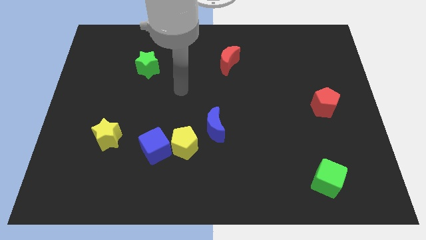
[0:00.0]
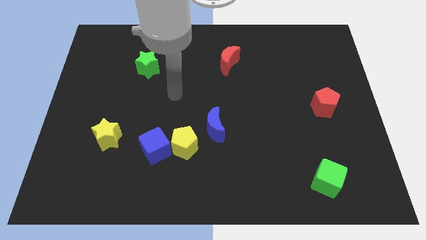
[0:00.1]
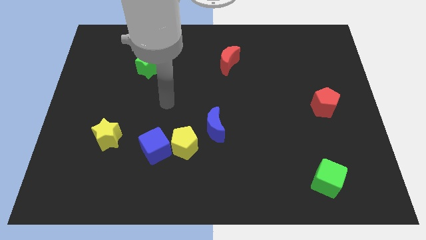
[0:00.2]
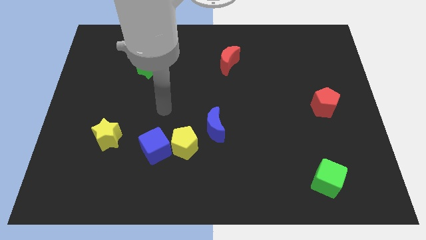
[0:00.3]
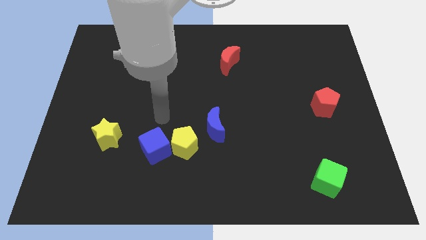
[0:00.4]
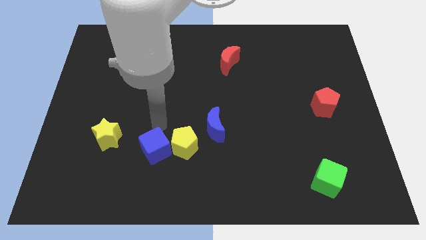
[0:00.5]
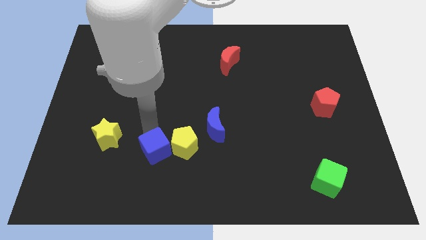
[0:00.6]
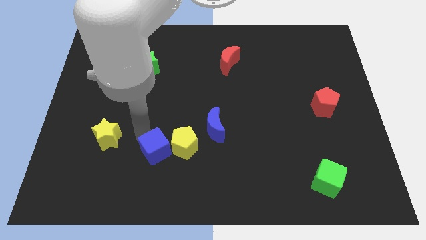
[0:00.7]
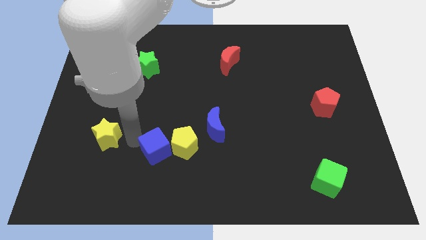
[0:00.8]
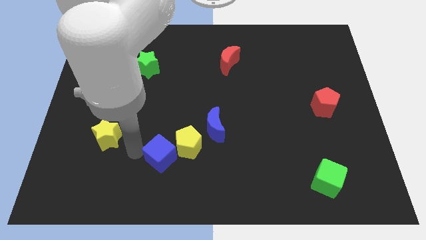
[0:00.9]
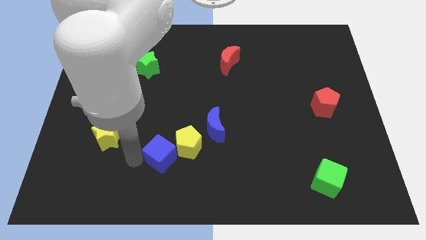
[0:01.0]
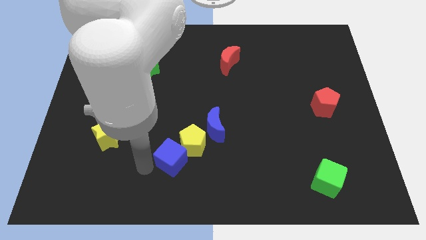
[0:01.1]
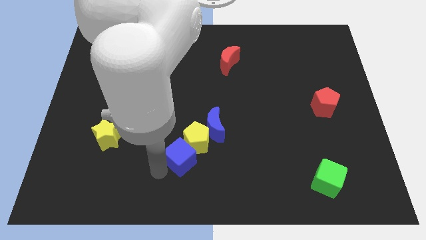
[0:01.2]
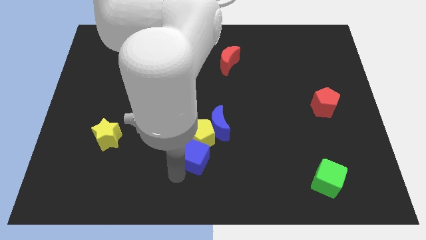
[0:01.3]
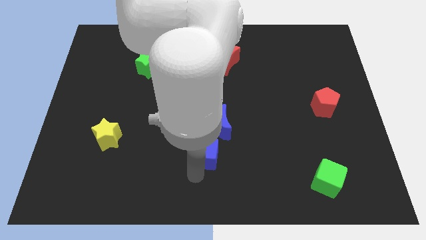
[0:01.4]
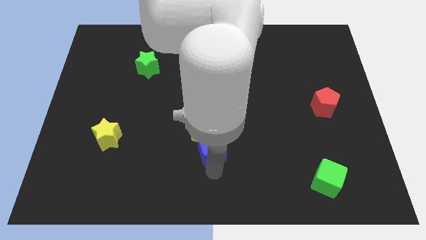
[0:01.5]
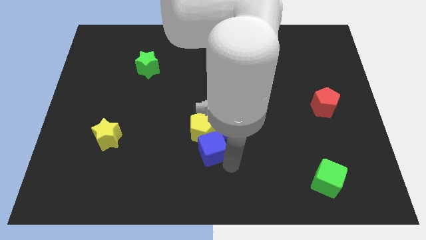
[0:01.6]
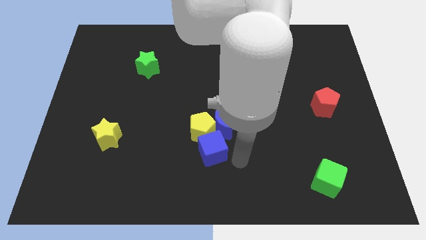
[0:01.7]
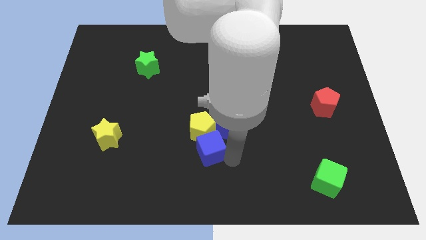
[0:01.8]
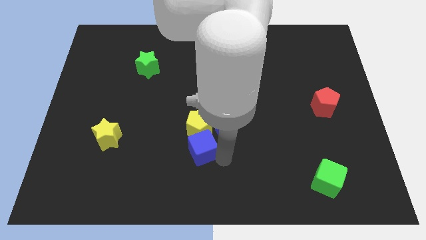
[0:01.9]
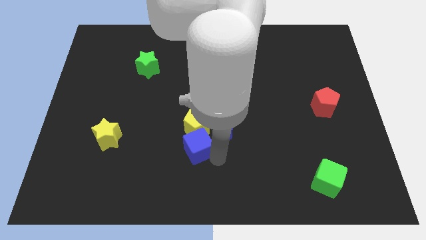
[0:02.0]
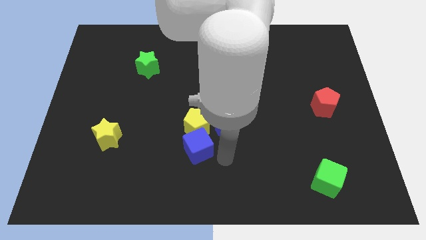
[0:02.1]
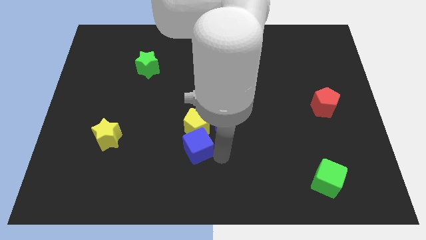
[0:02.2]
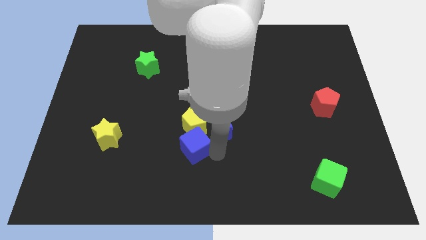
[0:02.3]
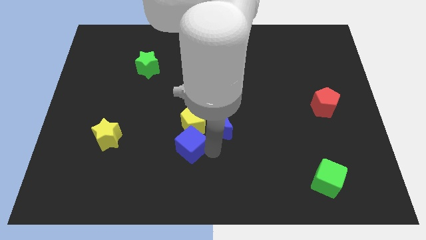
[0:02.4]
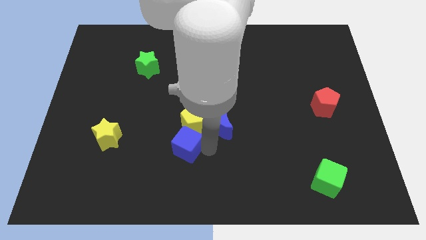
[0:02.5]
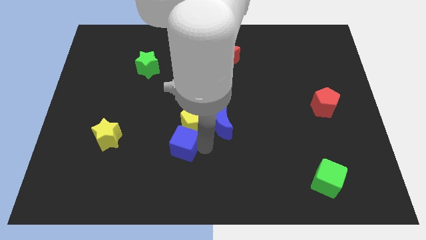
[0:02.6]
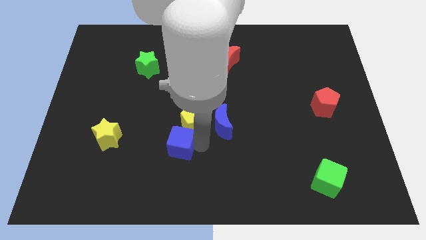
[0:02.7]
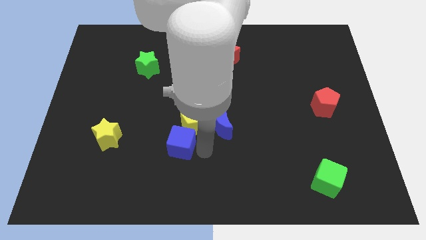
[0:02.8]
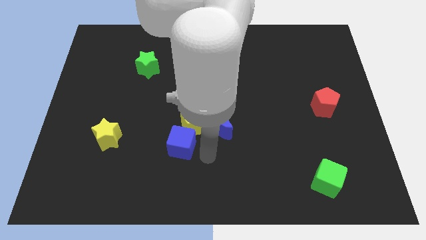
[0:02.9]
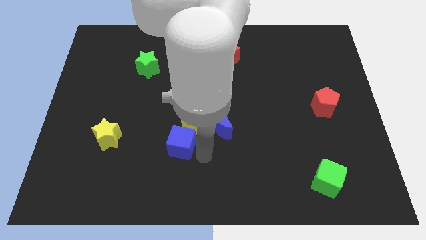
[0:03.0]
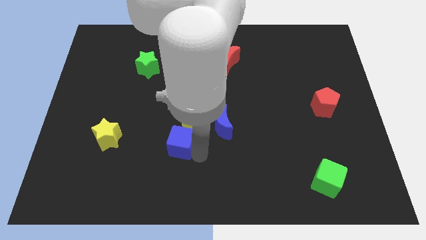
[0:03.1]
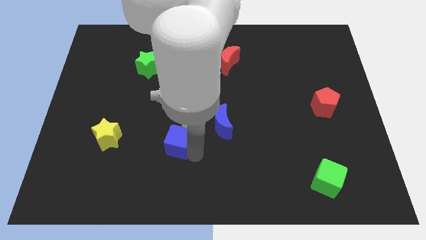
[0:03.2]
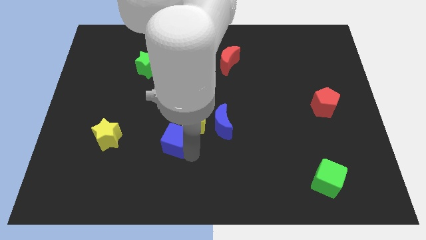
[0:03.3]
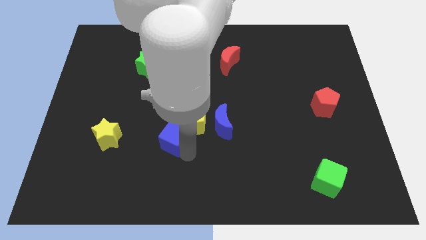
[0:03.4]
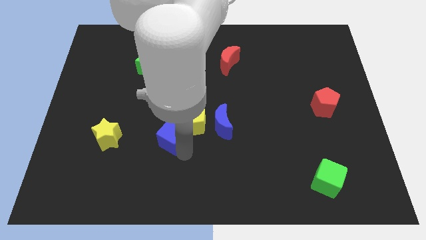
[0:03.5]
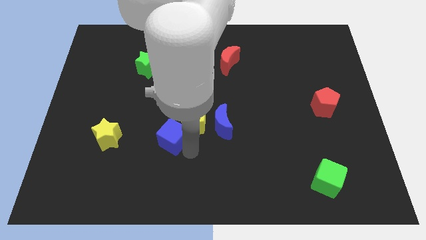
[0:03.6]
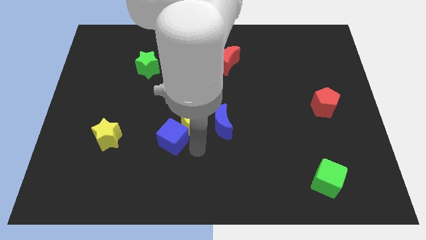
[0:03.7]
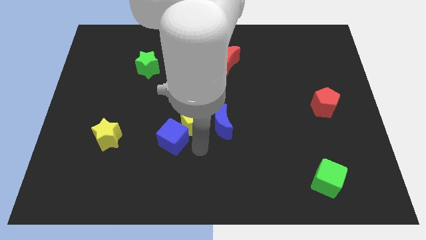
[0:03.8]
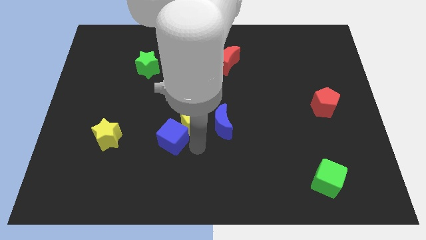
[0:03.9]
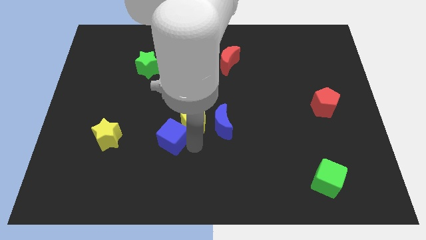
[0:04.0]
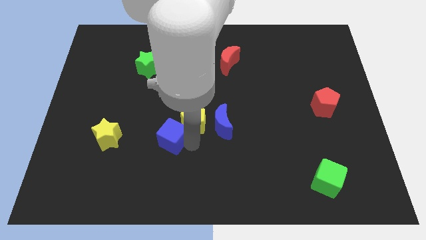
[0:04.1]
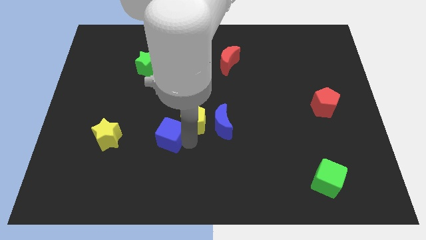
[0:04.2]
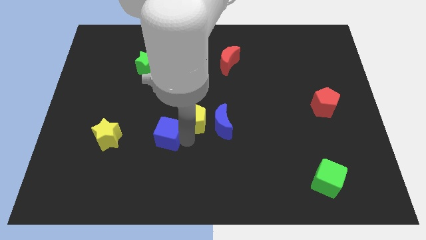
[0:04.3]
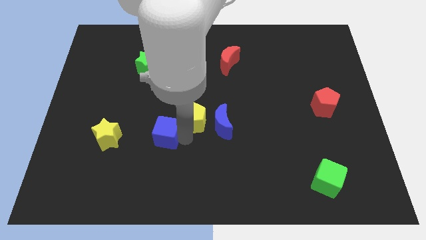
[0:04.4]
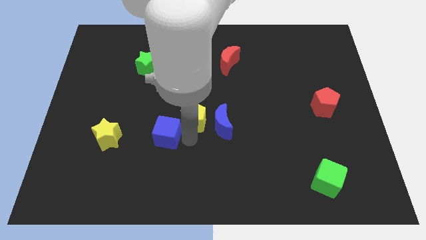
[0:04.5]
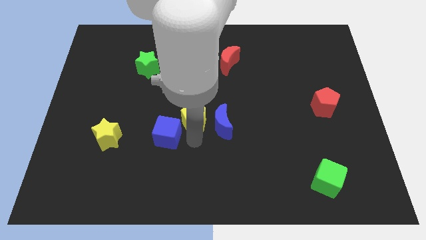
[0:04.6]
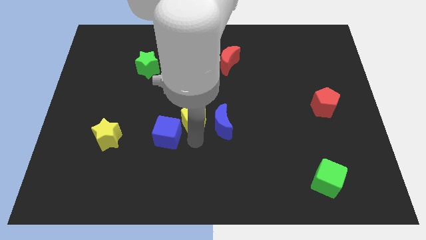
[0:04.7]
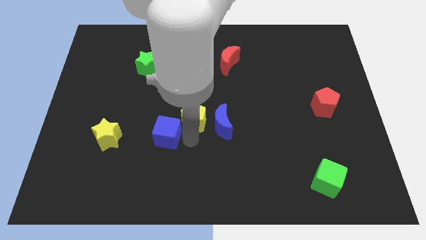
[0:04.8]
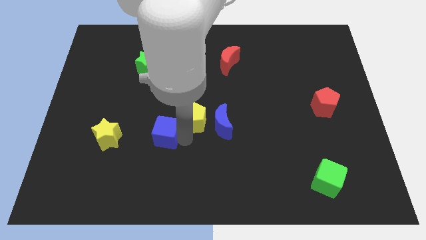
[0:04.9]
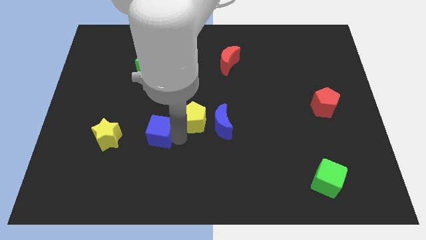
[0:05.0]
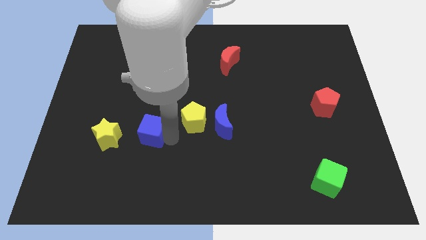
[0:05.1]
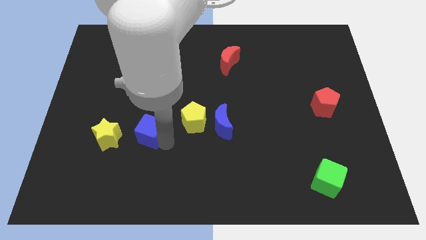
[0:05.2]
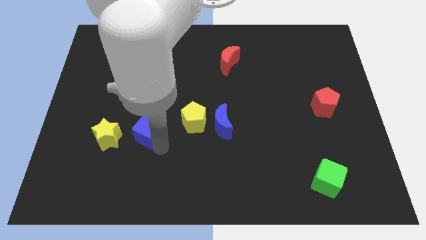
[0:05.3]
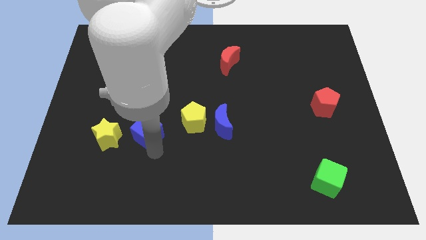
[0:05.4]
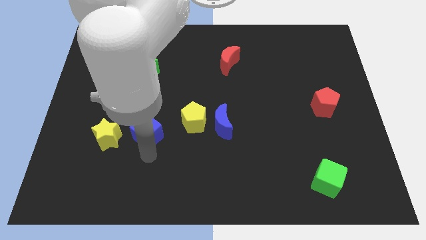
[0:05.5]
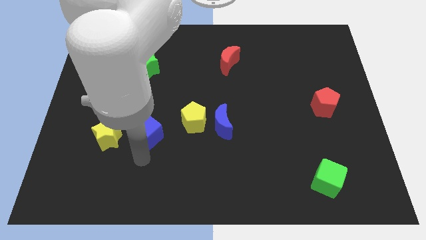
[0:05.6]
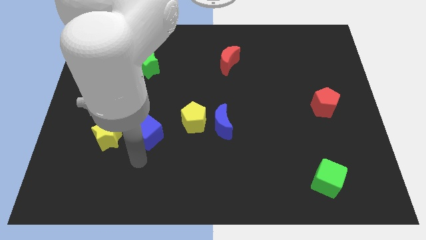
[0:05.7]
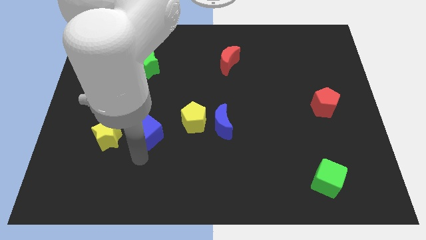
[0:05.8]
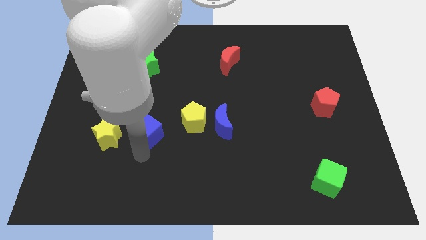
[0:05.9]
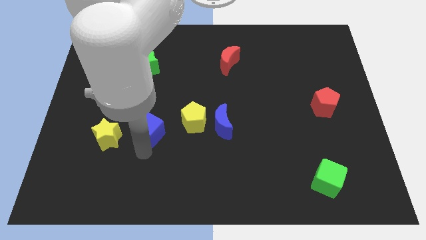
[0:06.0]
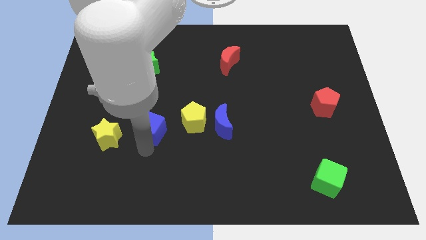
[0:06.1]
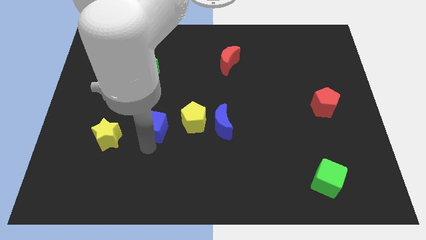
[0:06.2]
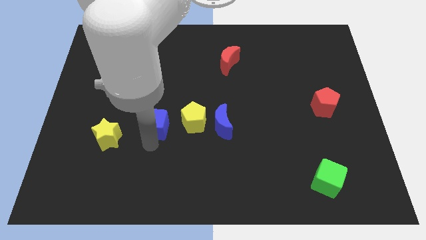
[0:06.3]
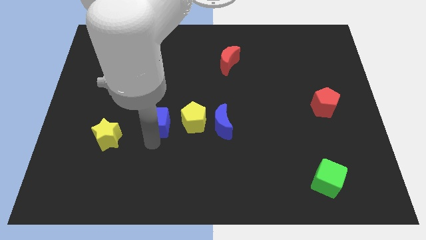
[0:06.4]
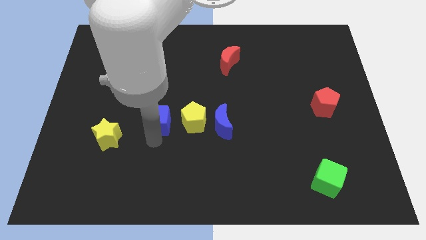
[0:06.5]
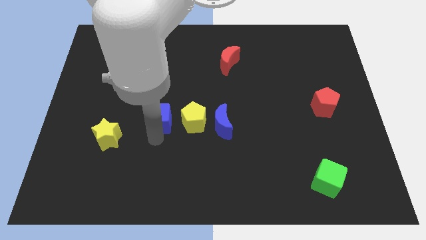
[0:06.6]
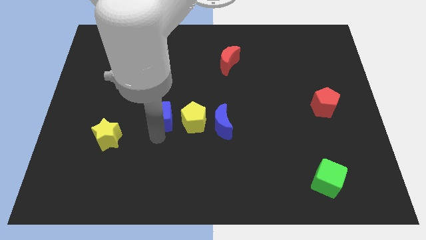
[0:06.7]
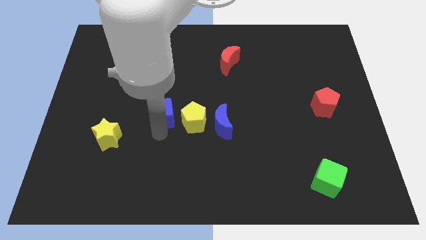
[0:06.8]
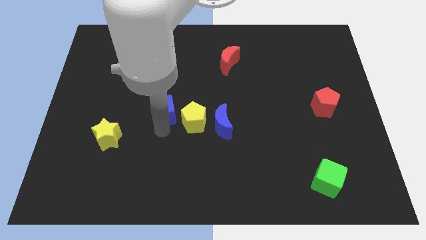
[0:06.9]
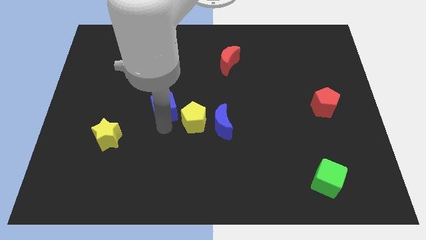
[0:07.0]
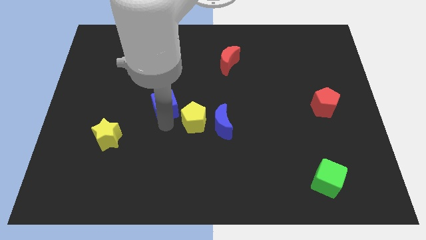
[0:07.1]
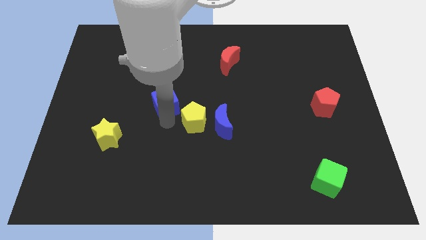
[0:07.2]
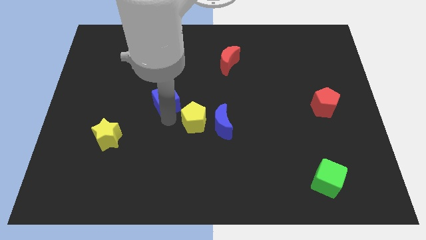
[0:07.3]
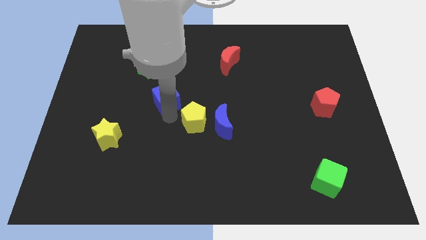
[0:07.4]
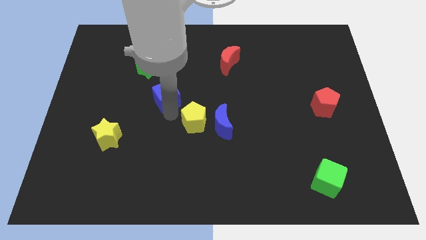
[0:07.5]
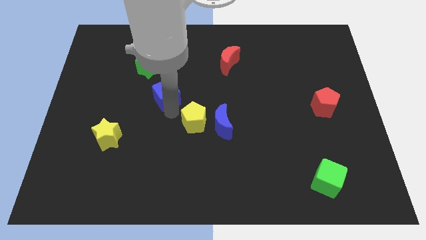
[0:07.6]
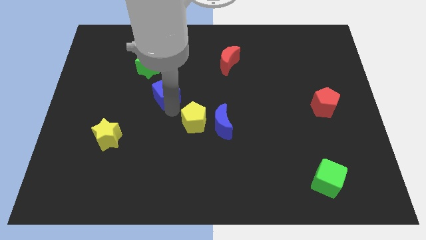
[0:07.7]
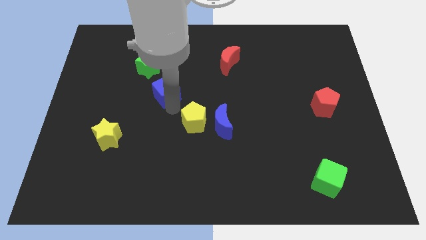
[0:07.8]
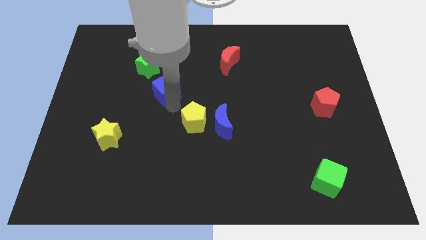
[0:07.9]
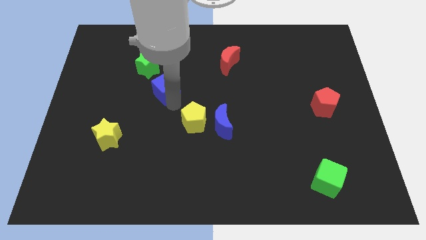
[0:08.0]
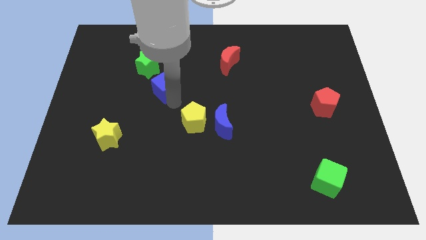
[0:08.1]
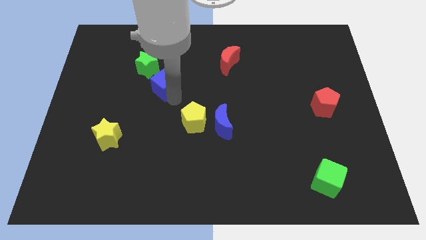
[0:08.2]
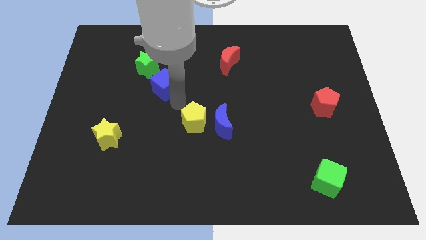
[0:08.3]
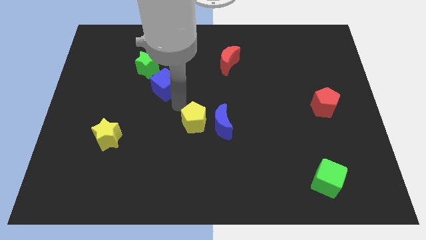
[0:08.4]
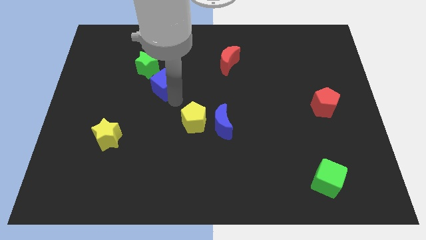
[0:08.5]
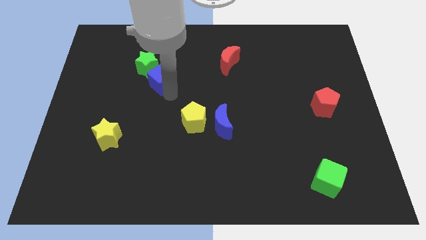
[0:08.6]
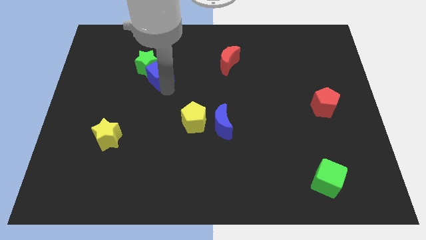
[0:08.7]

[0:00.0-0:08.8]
move the blue cube close to the green star
